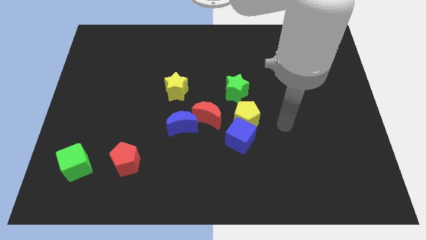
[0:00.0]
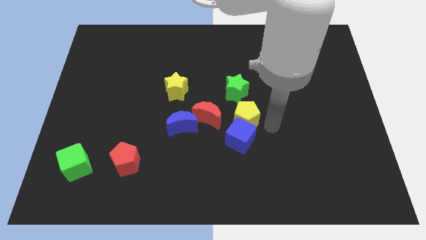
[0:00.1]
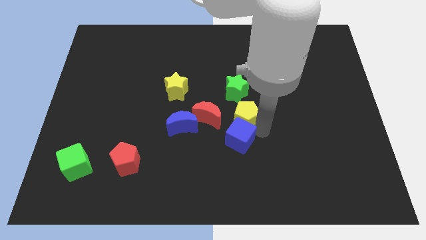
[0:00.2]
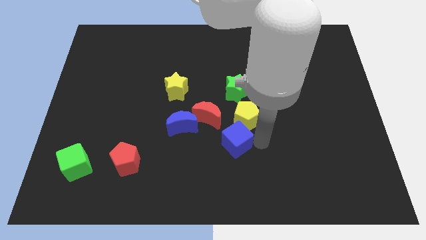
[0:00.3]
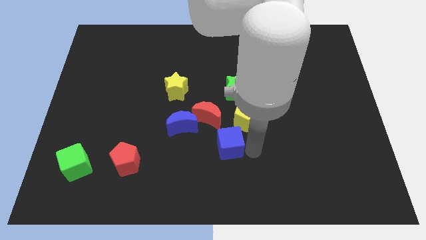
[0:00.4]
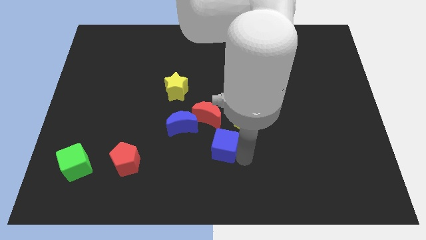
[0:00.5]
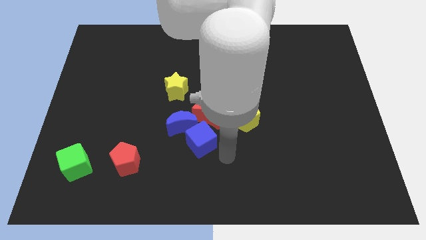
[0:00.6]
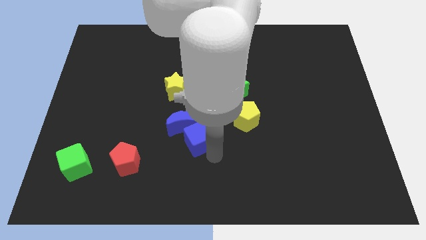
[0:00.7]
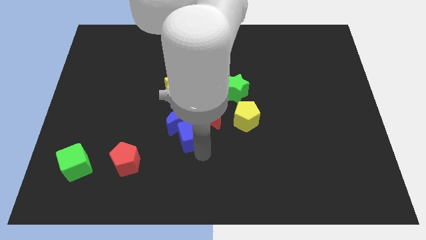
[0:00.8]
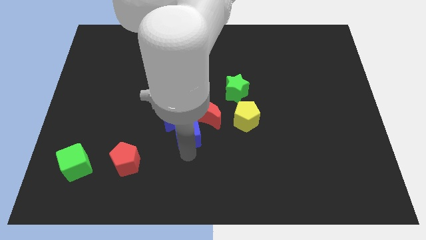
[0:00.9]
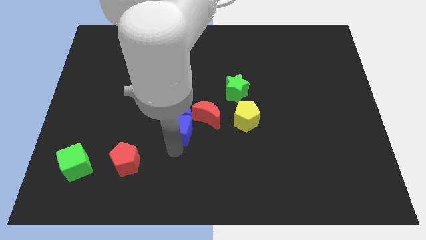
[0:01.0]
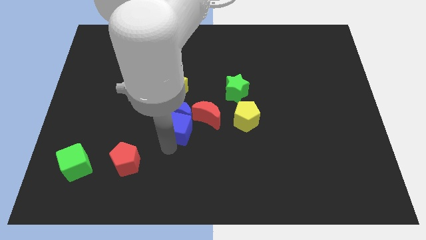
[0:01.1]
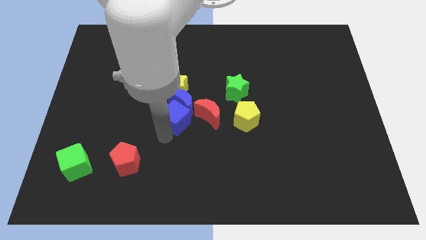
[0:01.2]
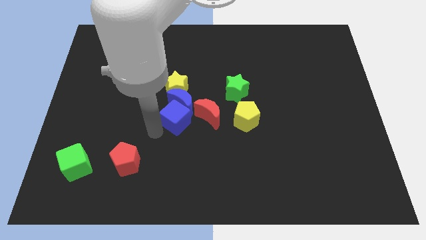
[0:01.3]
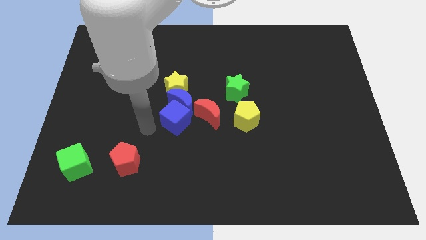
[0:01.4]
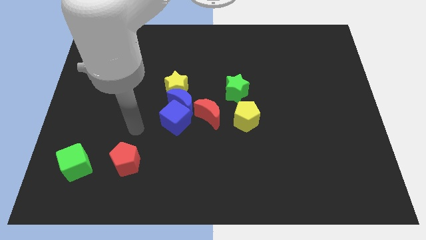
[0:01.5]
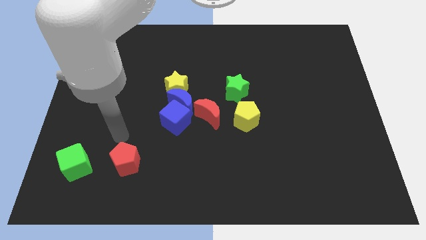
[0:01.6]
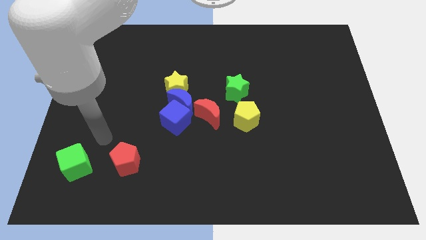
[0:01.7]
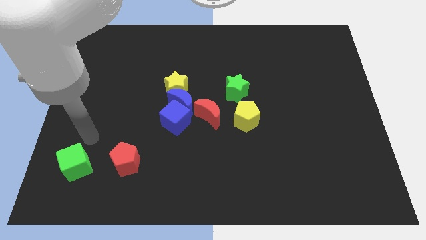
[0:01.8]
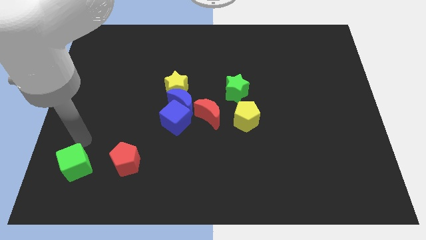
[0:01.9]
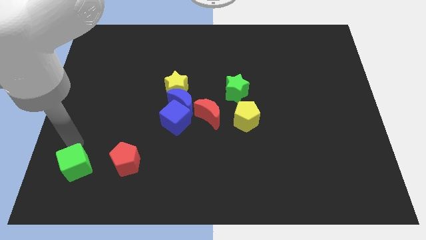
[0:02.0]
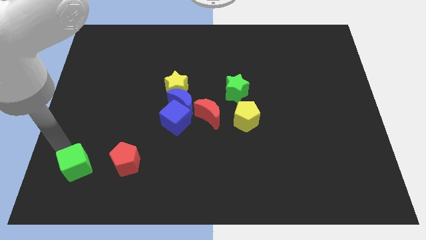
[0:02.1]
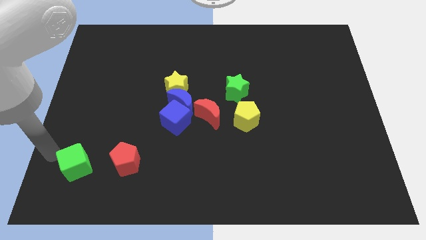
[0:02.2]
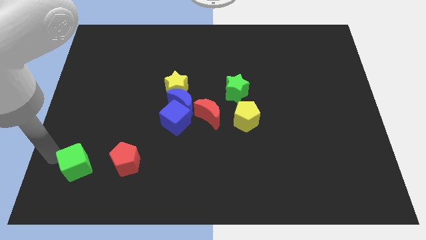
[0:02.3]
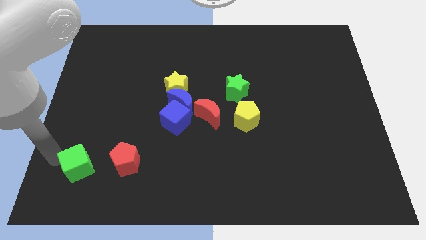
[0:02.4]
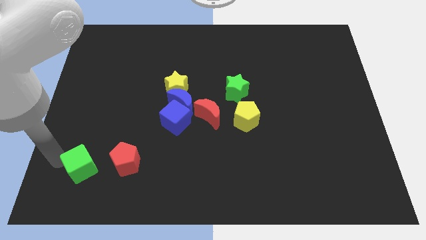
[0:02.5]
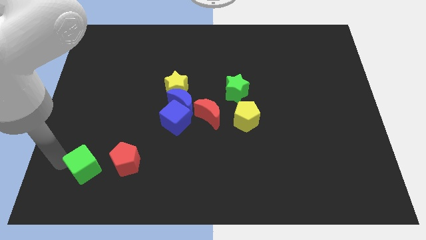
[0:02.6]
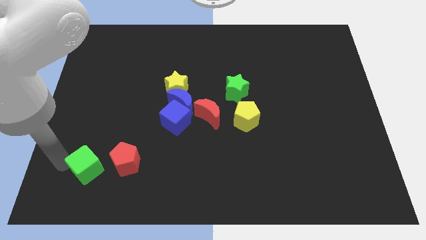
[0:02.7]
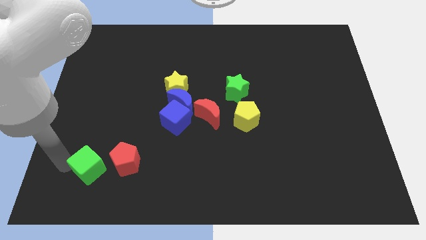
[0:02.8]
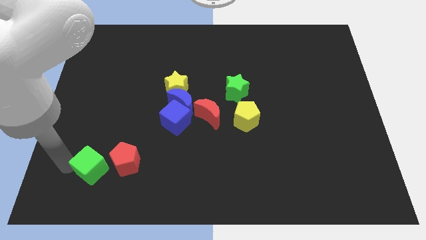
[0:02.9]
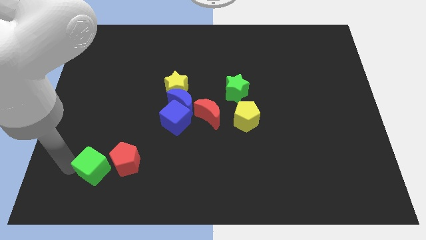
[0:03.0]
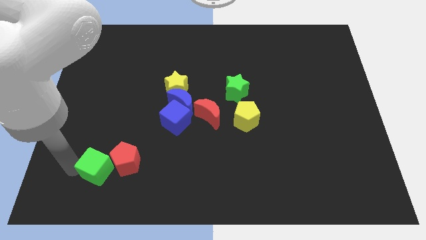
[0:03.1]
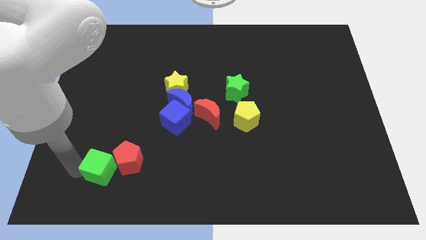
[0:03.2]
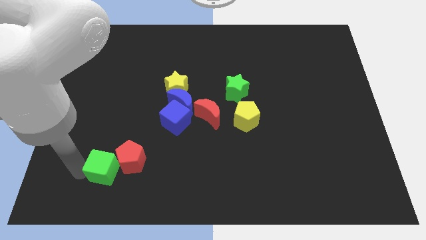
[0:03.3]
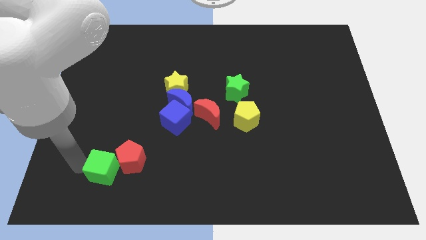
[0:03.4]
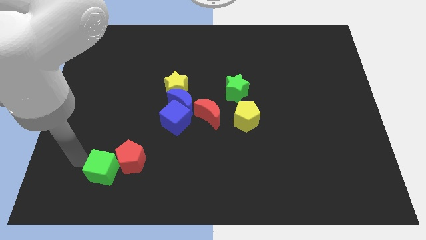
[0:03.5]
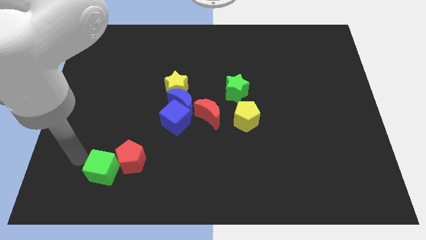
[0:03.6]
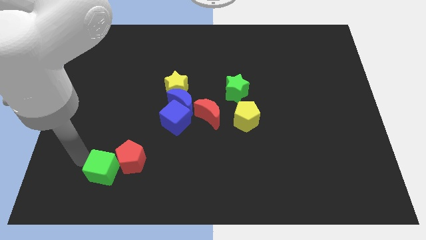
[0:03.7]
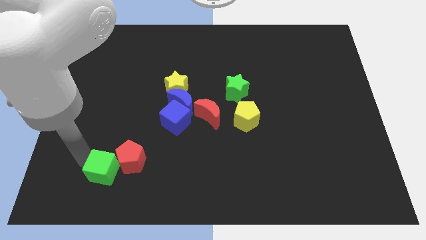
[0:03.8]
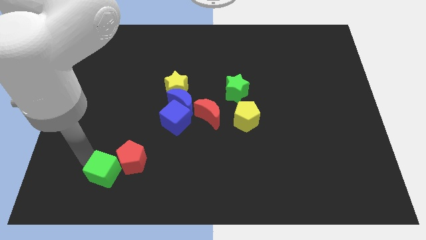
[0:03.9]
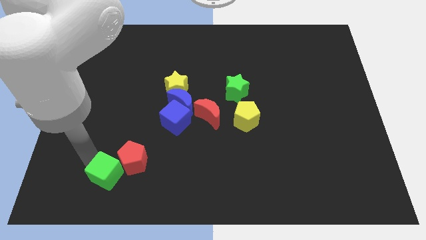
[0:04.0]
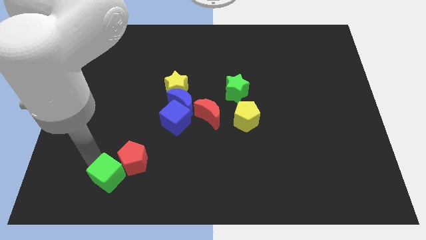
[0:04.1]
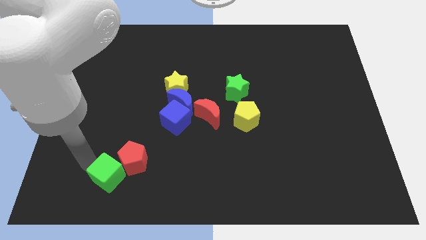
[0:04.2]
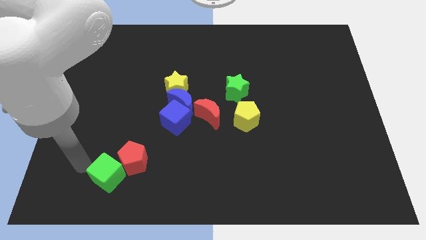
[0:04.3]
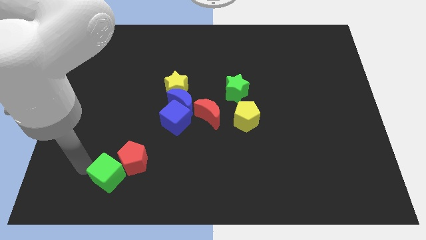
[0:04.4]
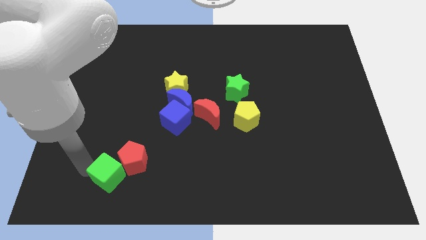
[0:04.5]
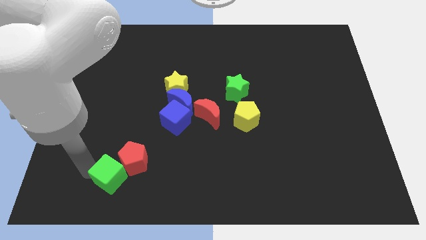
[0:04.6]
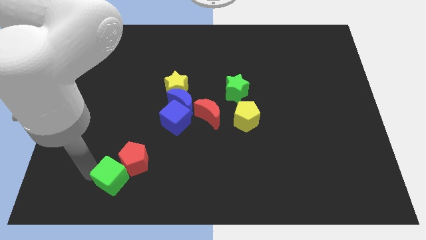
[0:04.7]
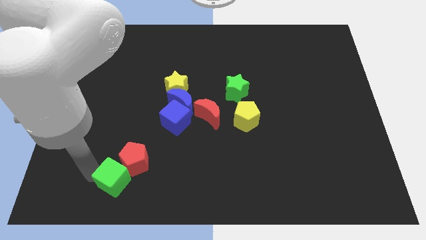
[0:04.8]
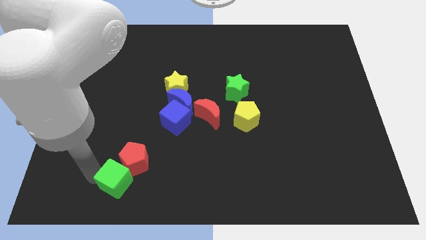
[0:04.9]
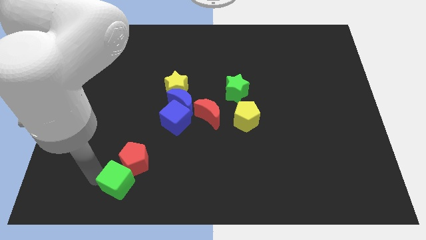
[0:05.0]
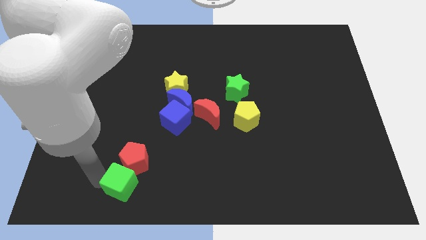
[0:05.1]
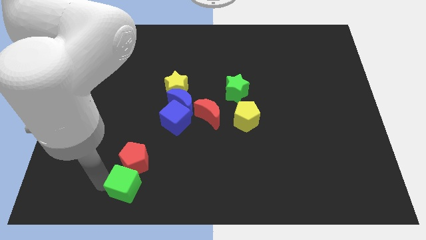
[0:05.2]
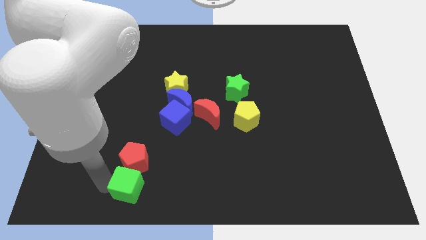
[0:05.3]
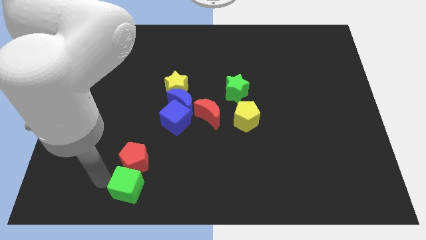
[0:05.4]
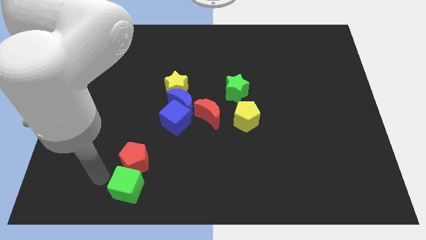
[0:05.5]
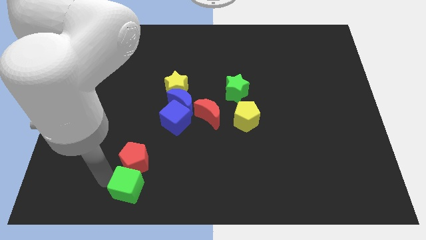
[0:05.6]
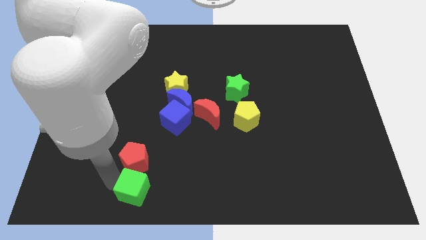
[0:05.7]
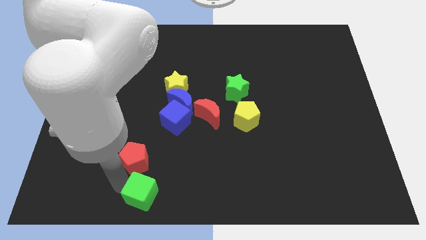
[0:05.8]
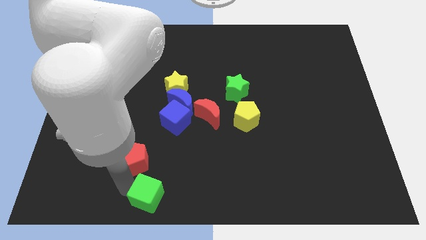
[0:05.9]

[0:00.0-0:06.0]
slide the green cube to the bottom side
